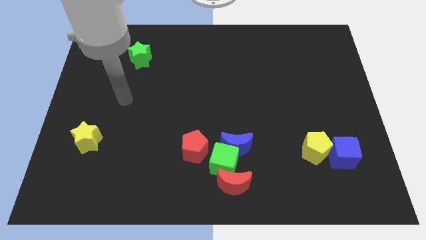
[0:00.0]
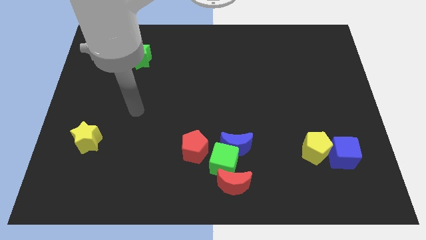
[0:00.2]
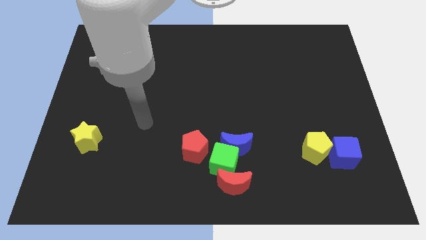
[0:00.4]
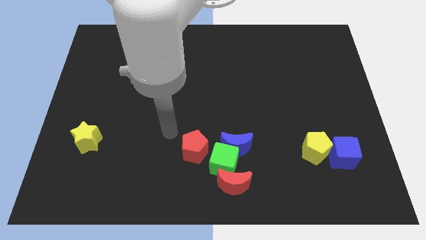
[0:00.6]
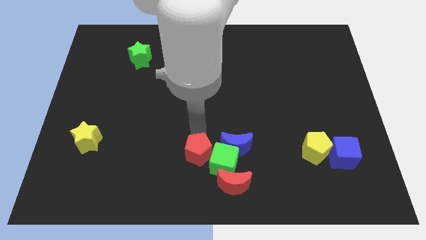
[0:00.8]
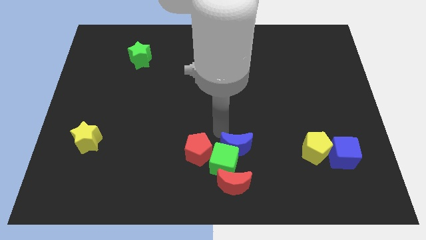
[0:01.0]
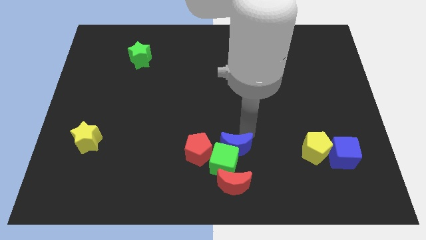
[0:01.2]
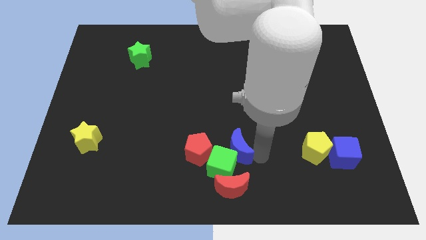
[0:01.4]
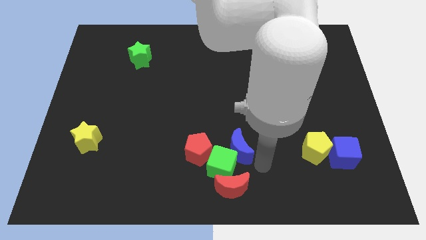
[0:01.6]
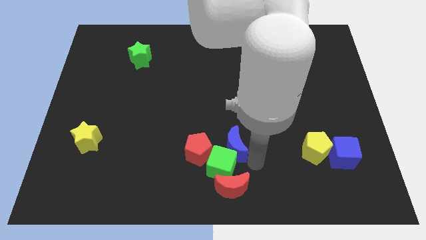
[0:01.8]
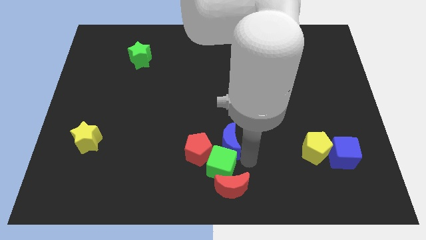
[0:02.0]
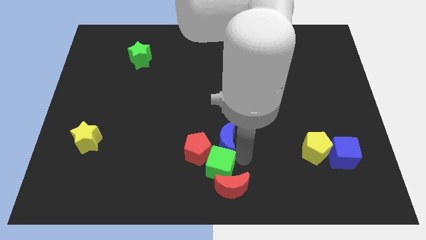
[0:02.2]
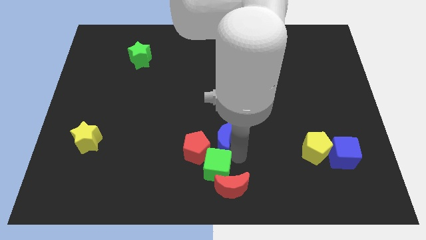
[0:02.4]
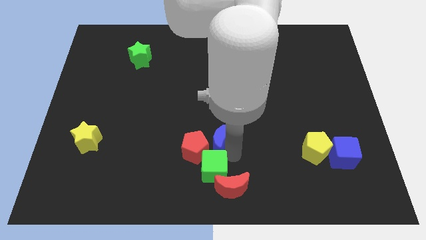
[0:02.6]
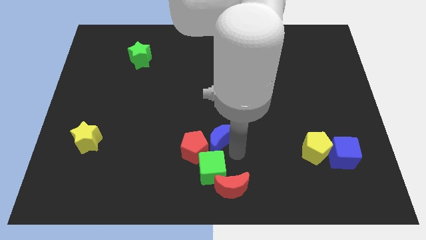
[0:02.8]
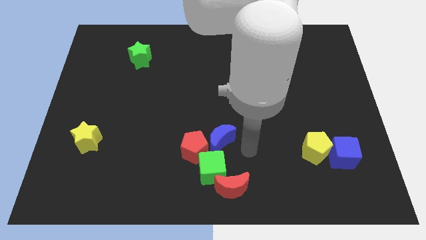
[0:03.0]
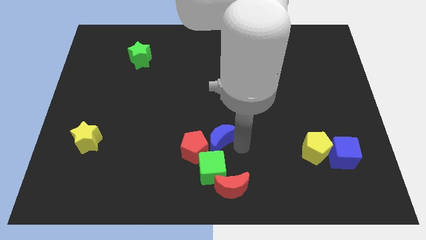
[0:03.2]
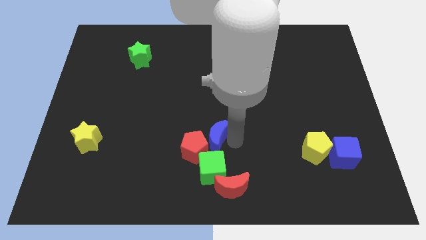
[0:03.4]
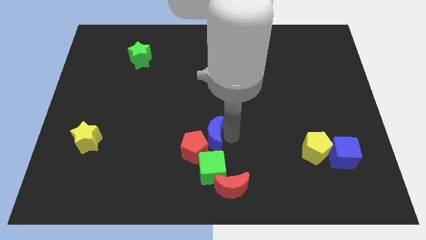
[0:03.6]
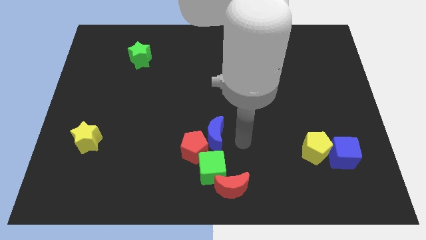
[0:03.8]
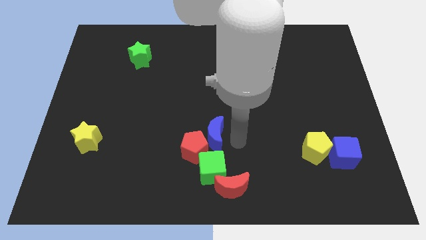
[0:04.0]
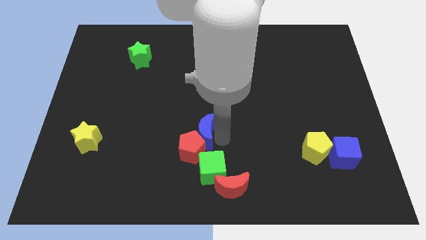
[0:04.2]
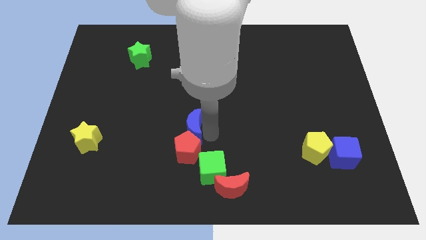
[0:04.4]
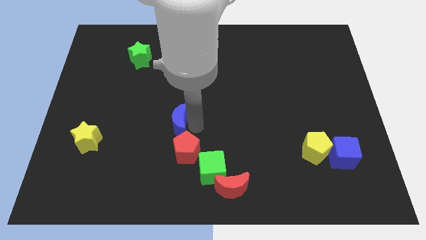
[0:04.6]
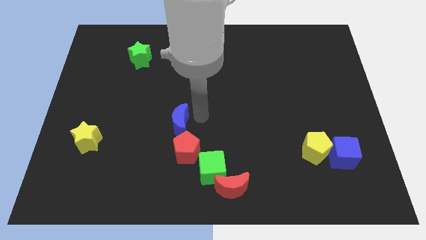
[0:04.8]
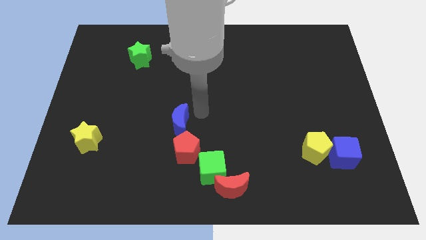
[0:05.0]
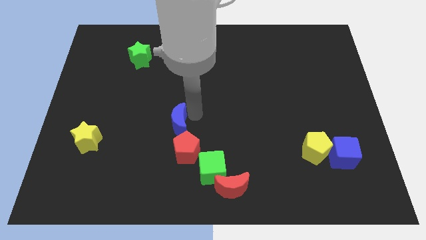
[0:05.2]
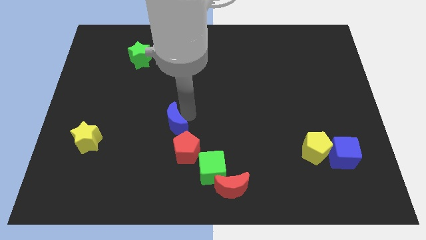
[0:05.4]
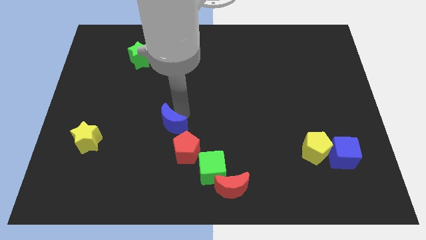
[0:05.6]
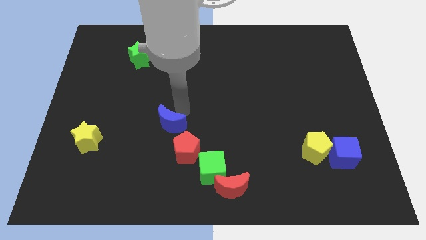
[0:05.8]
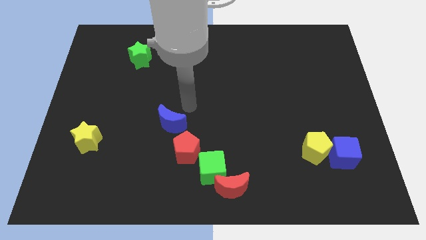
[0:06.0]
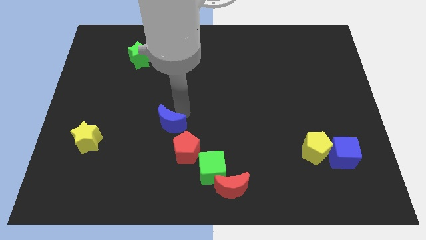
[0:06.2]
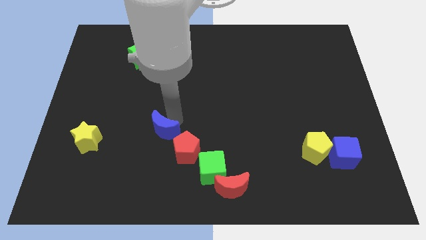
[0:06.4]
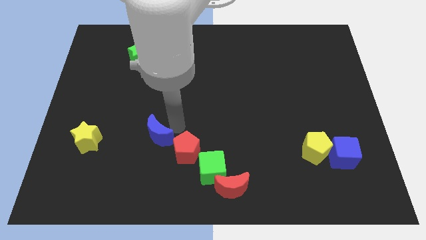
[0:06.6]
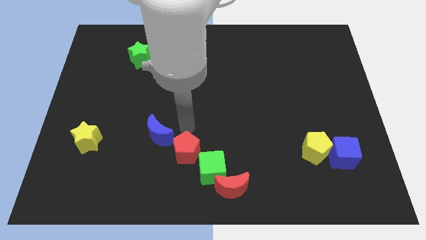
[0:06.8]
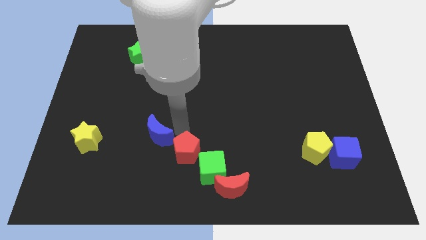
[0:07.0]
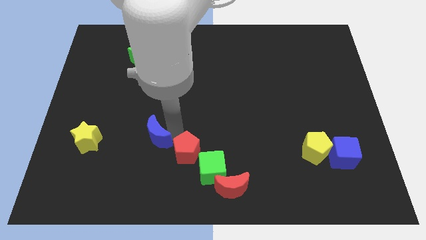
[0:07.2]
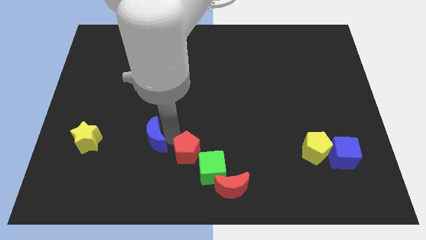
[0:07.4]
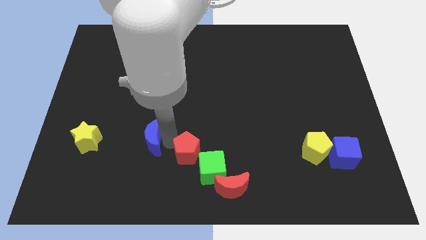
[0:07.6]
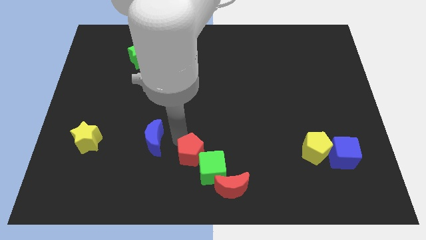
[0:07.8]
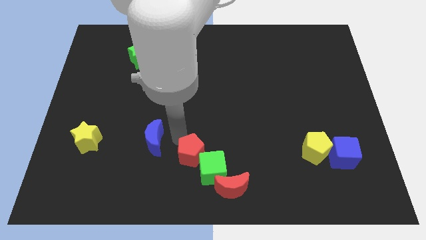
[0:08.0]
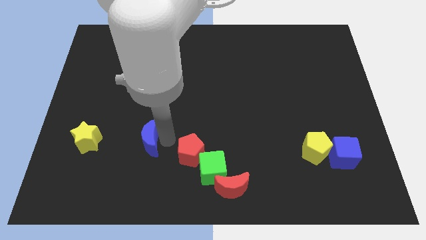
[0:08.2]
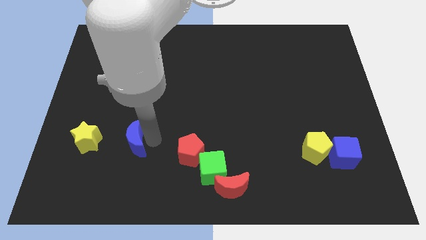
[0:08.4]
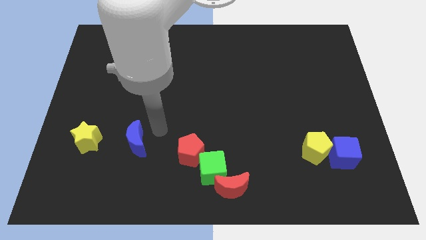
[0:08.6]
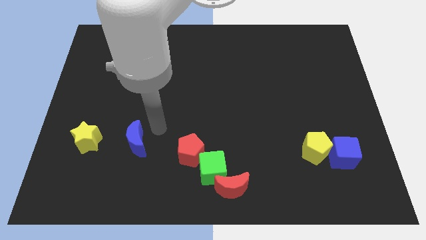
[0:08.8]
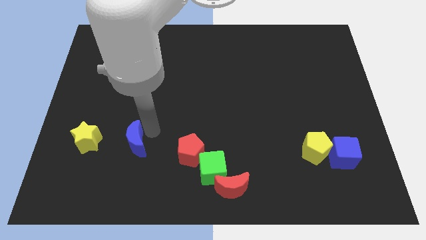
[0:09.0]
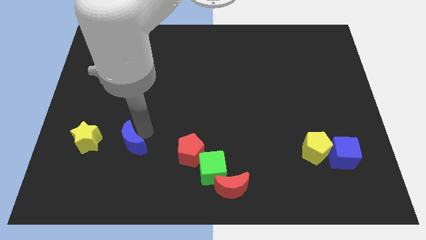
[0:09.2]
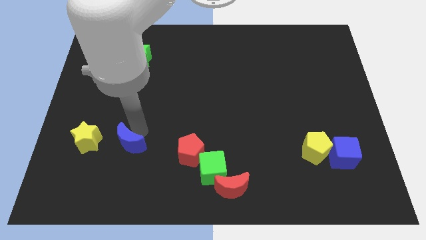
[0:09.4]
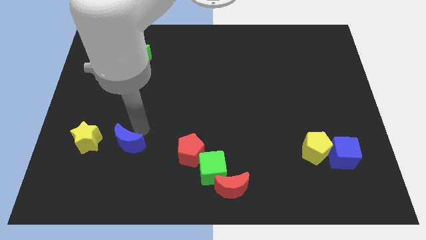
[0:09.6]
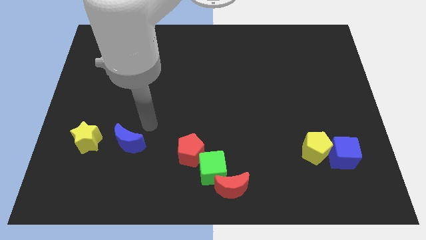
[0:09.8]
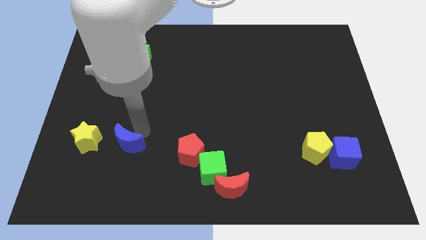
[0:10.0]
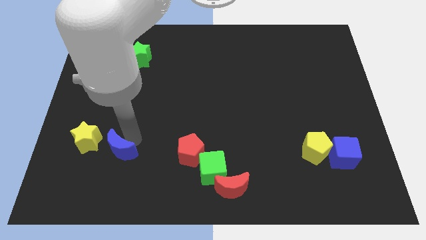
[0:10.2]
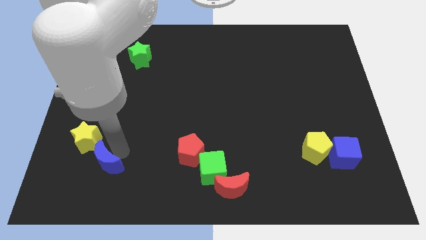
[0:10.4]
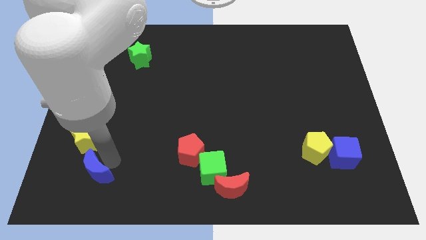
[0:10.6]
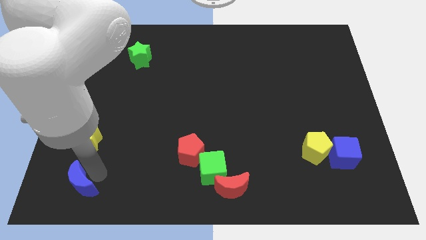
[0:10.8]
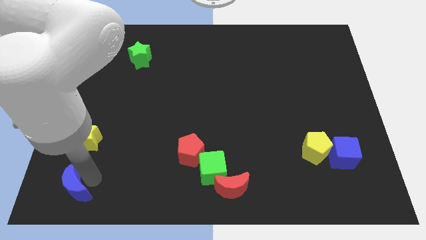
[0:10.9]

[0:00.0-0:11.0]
move the blue moon to the lower left corner
